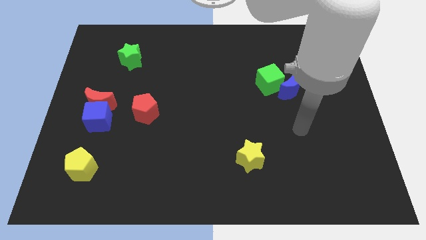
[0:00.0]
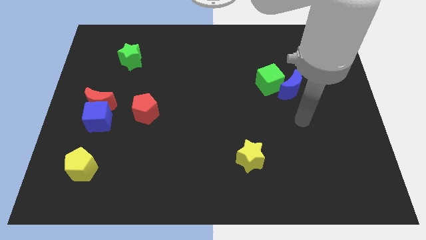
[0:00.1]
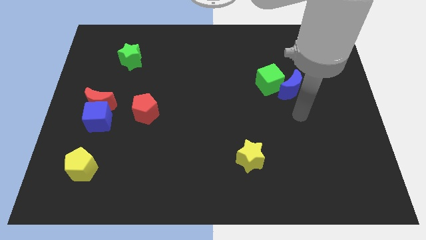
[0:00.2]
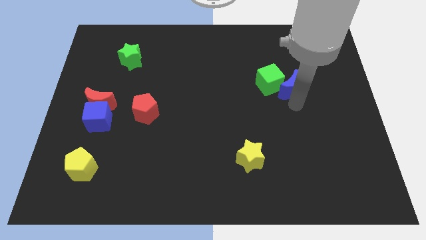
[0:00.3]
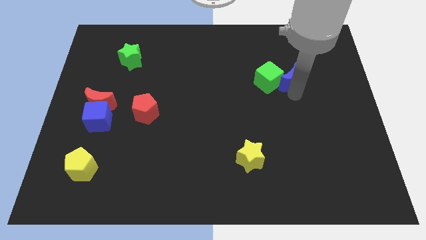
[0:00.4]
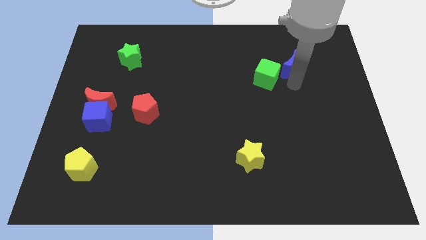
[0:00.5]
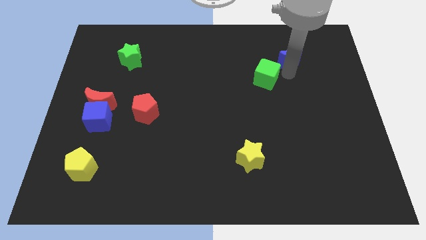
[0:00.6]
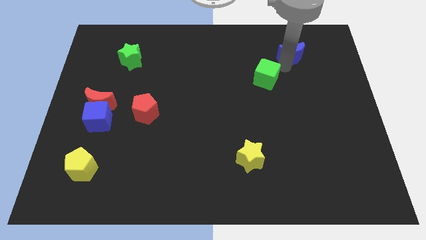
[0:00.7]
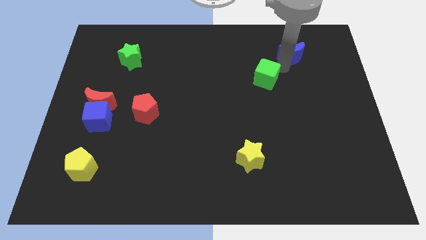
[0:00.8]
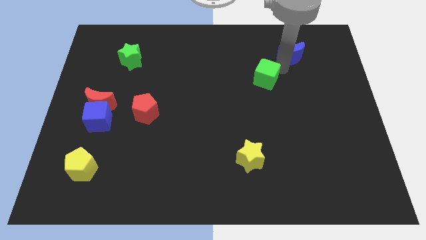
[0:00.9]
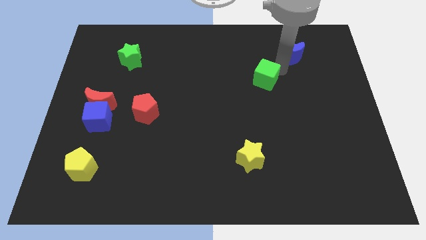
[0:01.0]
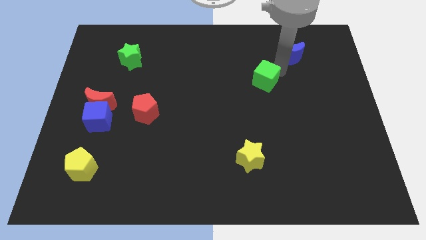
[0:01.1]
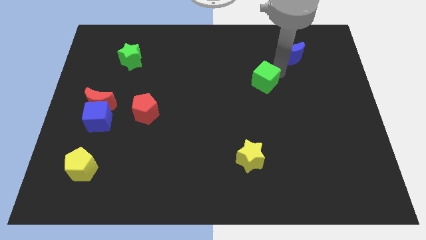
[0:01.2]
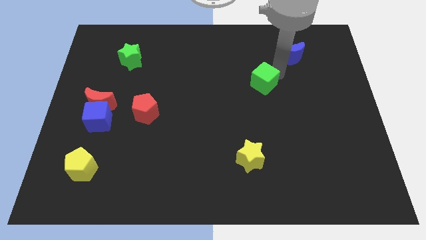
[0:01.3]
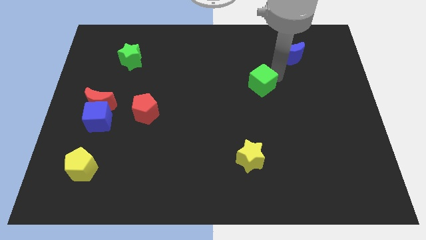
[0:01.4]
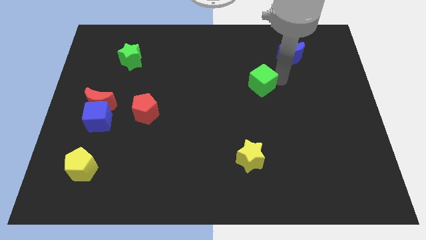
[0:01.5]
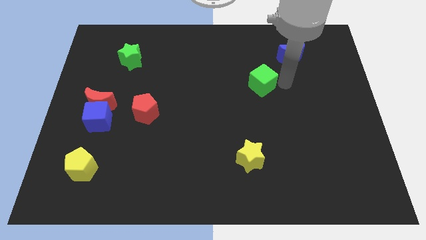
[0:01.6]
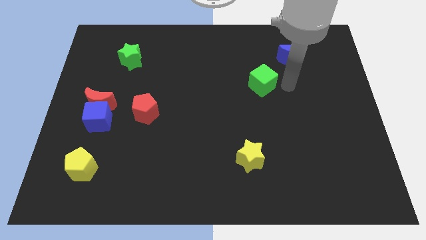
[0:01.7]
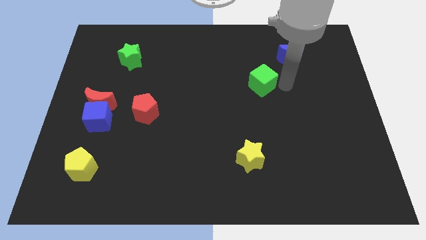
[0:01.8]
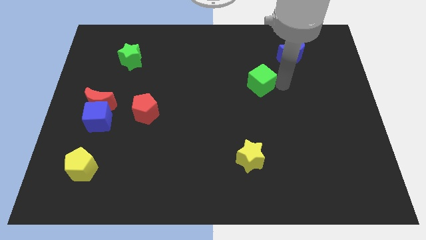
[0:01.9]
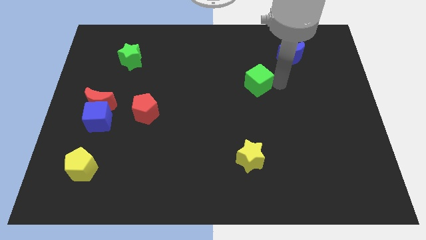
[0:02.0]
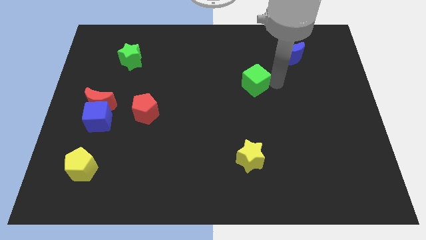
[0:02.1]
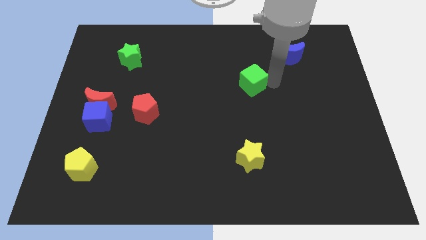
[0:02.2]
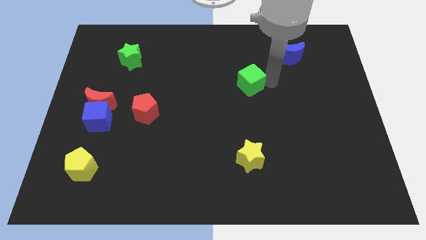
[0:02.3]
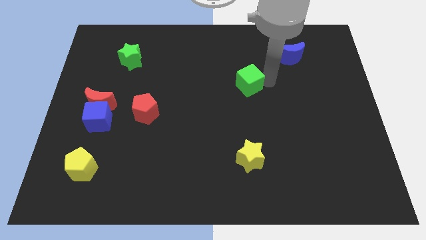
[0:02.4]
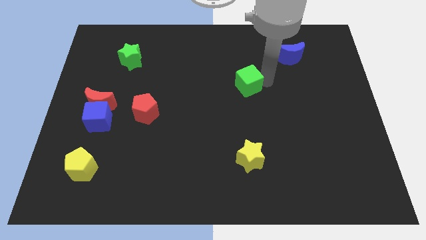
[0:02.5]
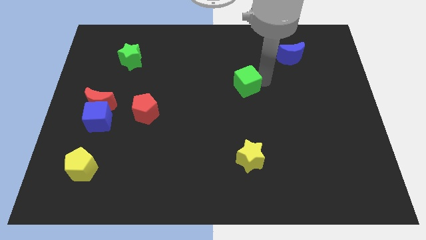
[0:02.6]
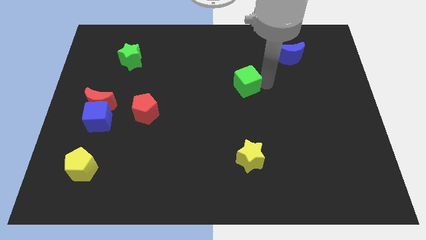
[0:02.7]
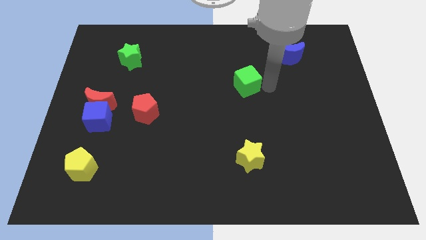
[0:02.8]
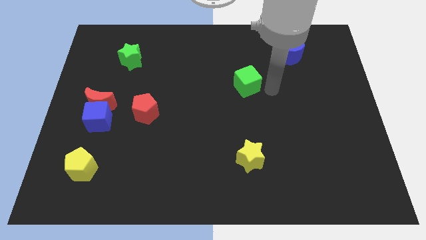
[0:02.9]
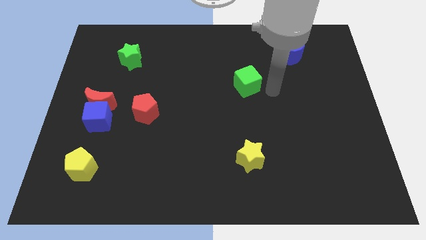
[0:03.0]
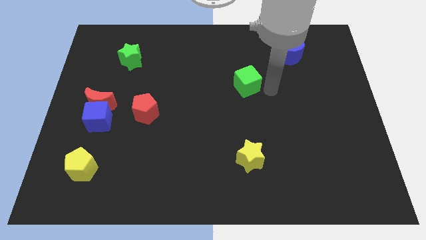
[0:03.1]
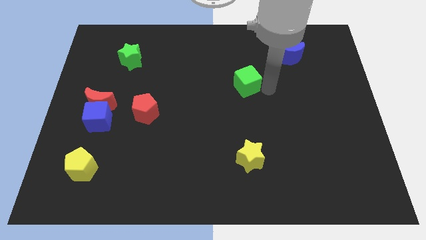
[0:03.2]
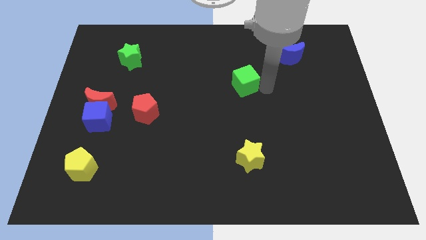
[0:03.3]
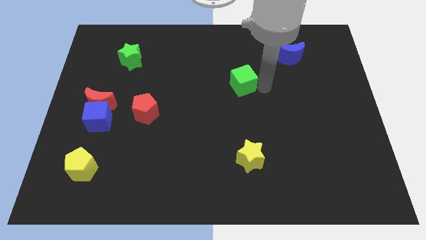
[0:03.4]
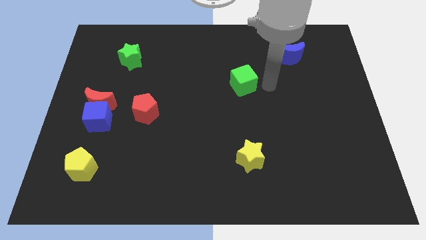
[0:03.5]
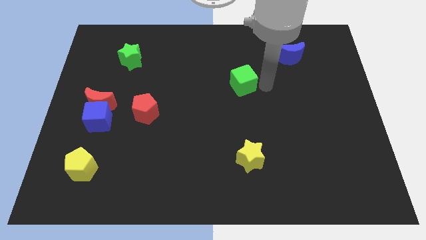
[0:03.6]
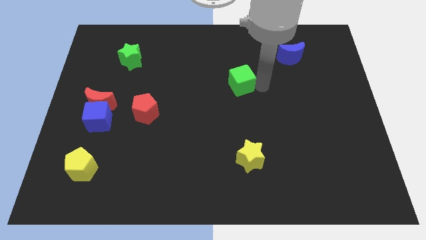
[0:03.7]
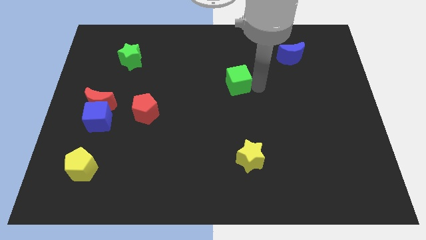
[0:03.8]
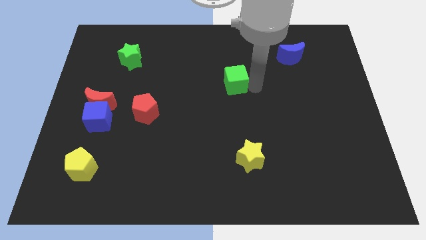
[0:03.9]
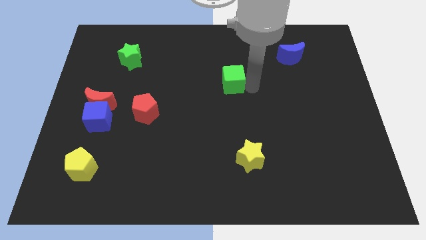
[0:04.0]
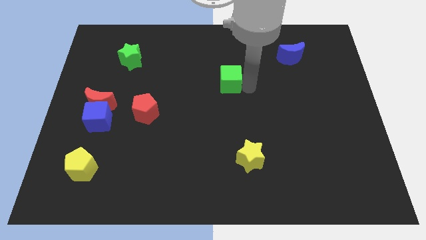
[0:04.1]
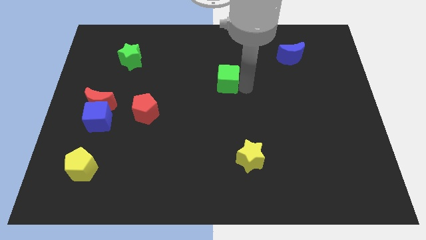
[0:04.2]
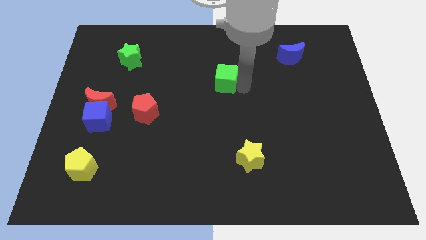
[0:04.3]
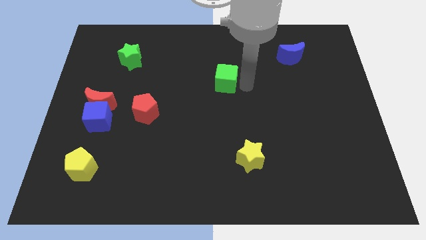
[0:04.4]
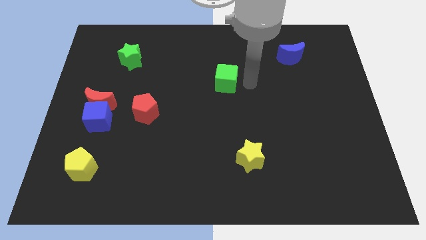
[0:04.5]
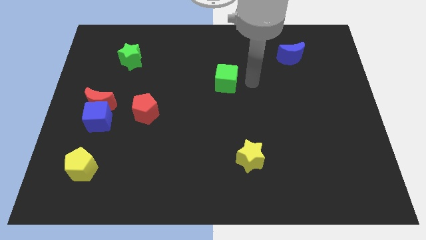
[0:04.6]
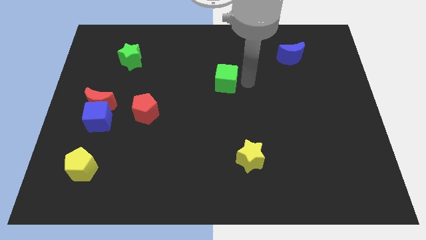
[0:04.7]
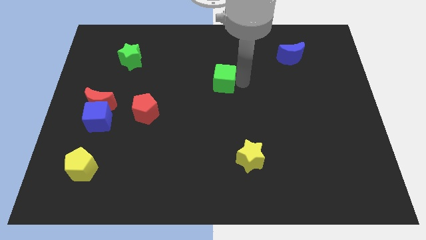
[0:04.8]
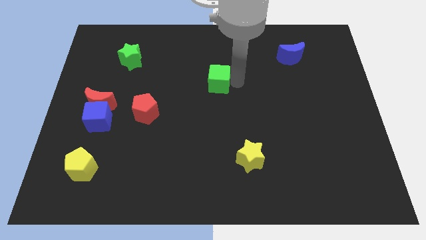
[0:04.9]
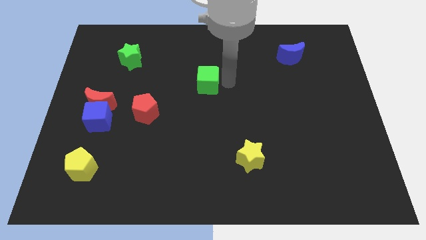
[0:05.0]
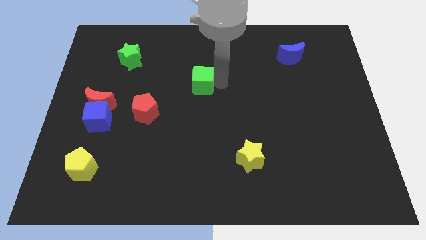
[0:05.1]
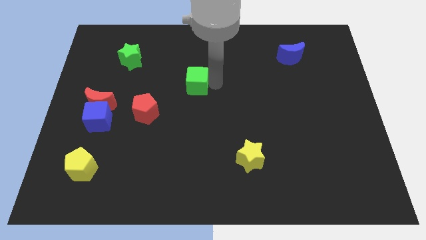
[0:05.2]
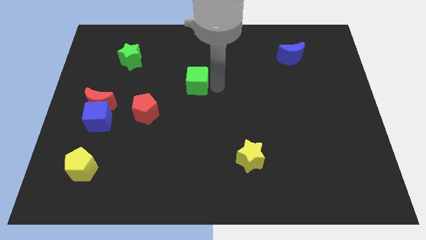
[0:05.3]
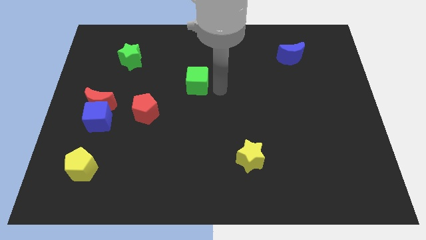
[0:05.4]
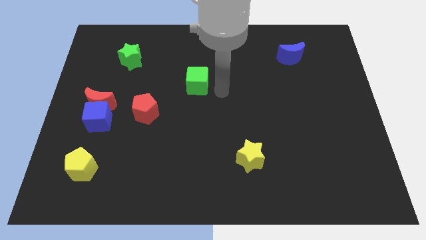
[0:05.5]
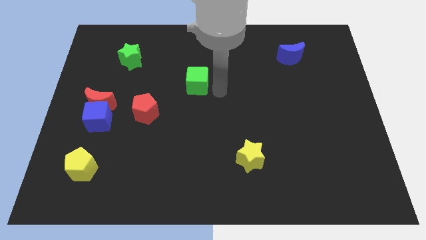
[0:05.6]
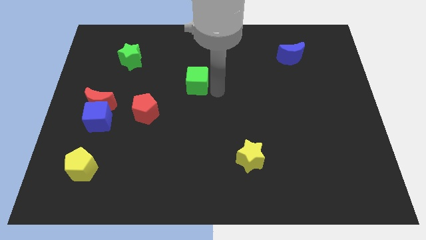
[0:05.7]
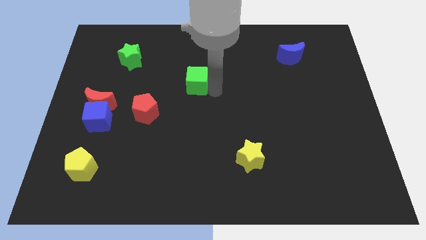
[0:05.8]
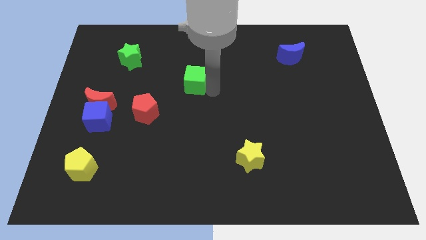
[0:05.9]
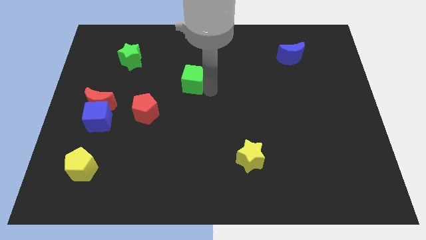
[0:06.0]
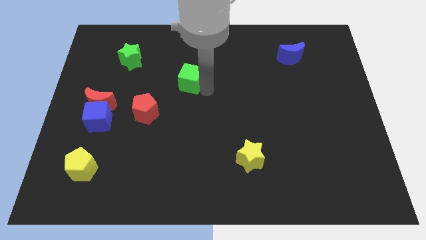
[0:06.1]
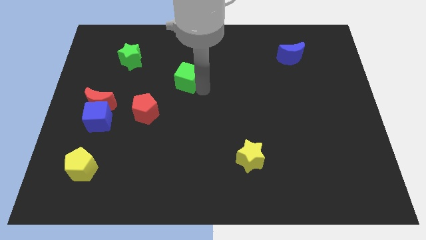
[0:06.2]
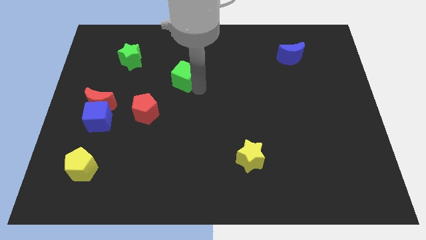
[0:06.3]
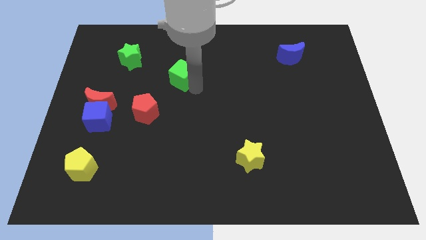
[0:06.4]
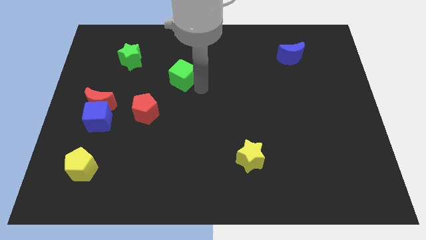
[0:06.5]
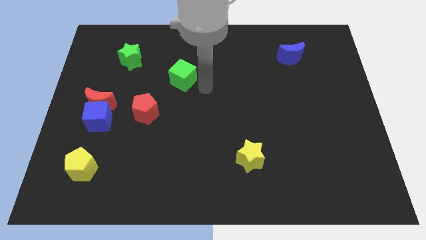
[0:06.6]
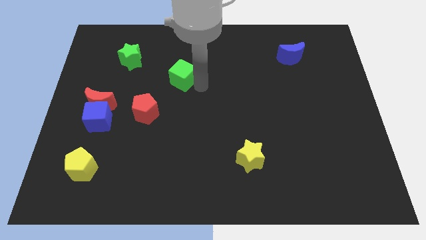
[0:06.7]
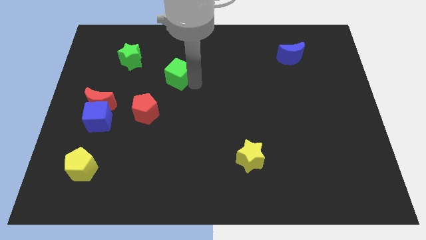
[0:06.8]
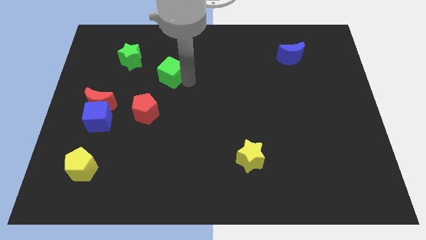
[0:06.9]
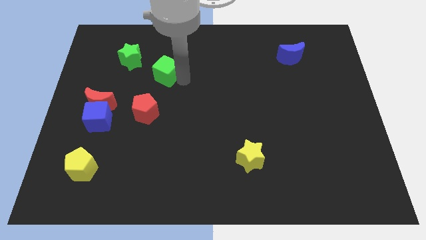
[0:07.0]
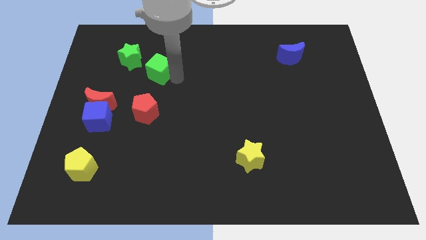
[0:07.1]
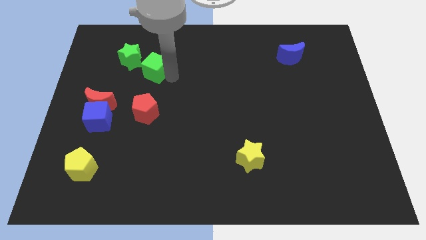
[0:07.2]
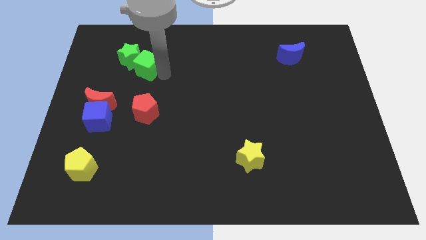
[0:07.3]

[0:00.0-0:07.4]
move the green cube next to the green star
